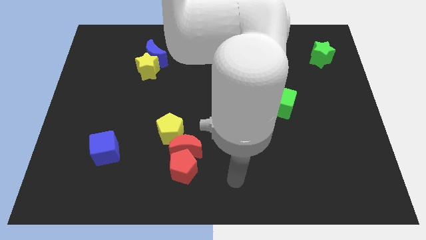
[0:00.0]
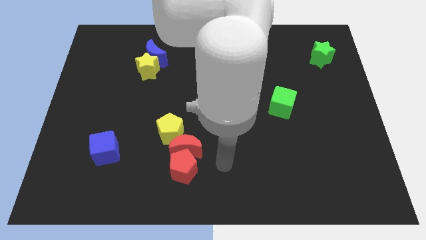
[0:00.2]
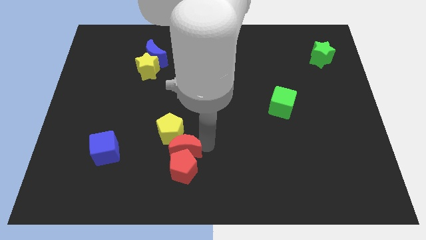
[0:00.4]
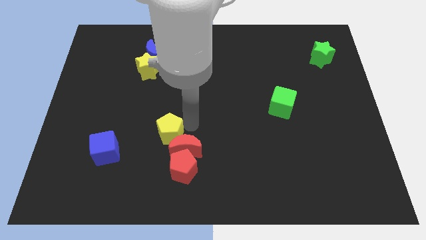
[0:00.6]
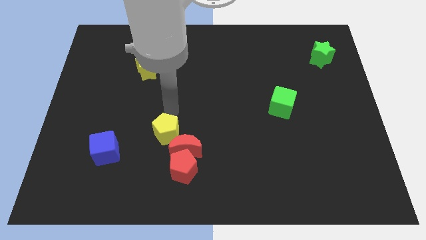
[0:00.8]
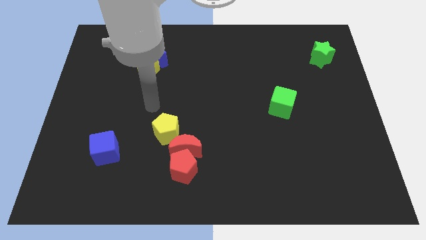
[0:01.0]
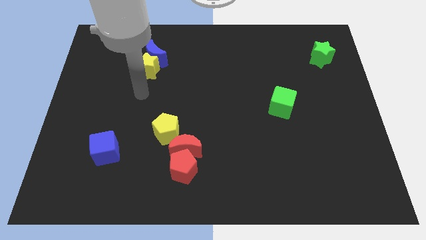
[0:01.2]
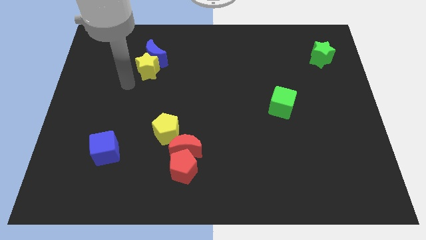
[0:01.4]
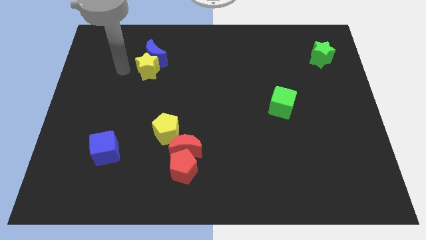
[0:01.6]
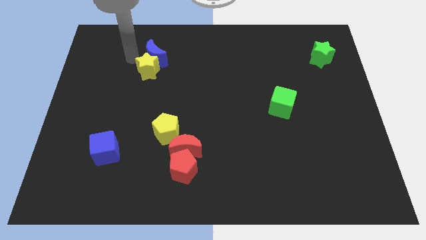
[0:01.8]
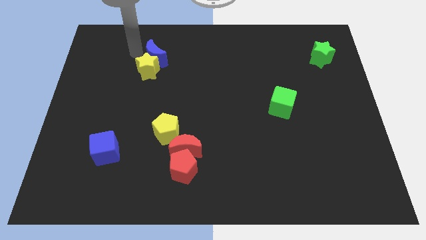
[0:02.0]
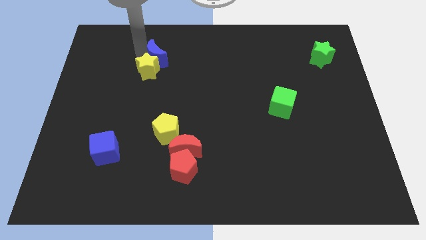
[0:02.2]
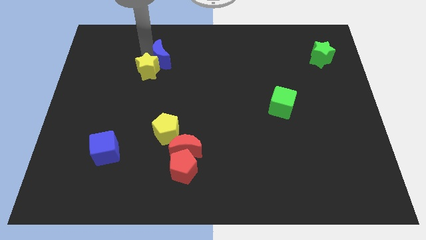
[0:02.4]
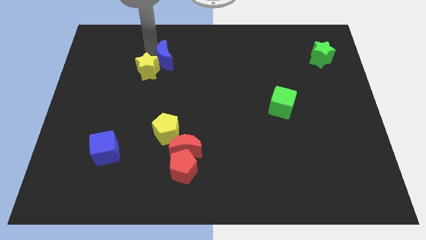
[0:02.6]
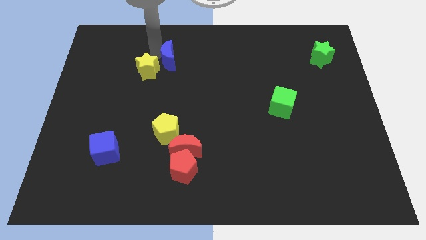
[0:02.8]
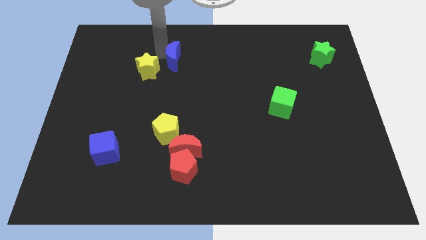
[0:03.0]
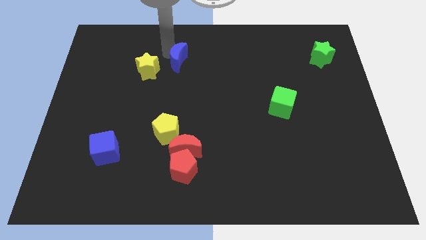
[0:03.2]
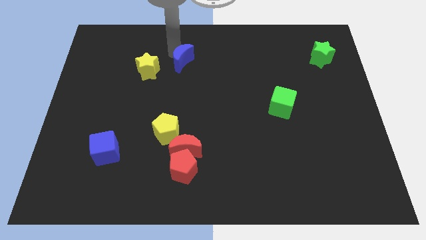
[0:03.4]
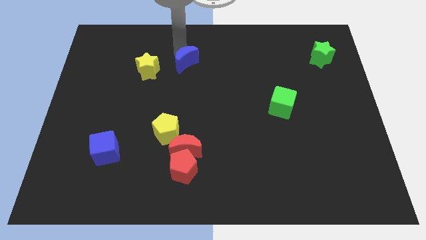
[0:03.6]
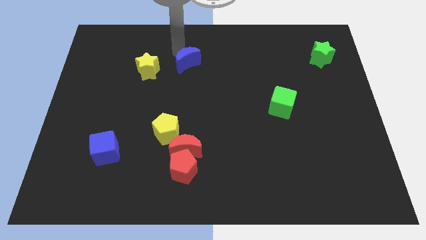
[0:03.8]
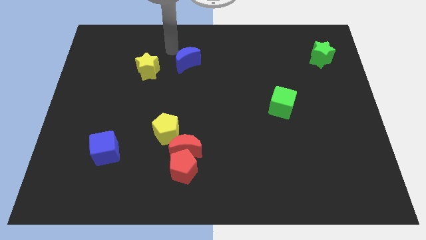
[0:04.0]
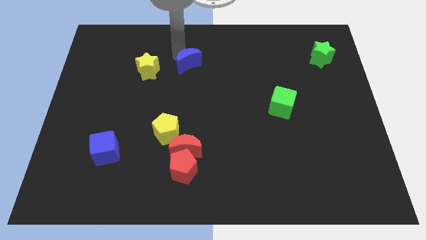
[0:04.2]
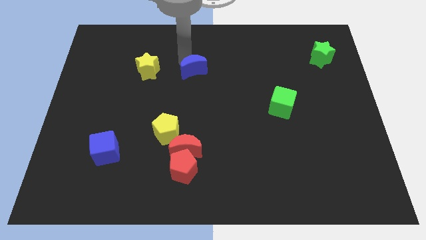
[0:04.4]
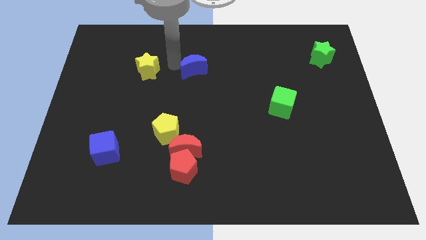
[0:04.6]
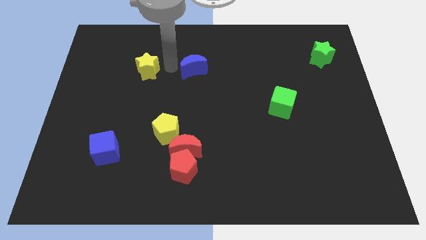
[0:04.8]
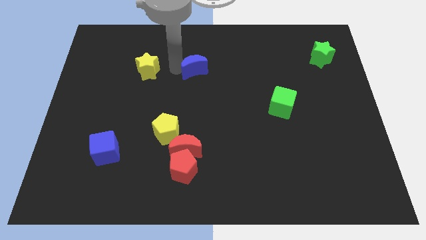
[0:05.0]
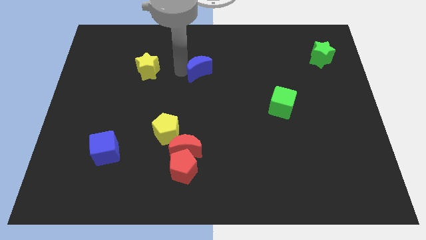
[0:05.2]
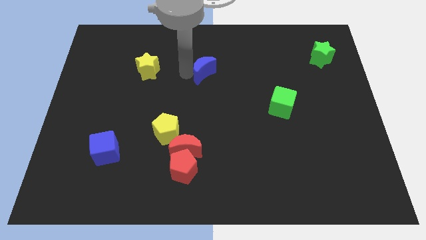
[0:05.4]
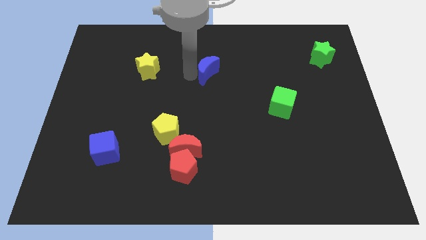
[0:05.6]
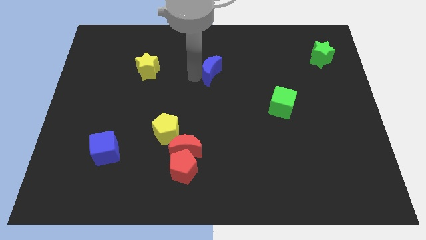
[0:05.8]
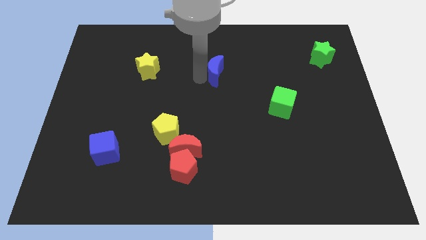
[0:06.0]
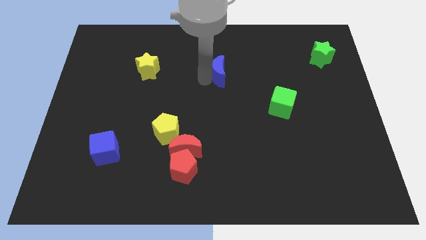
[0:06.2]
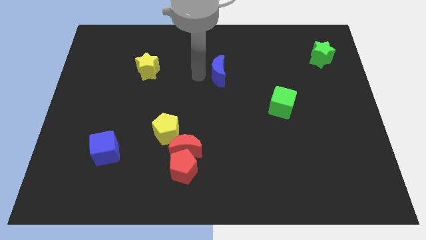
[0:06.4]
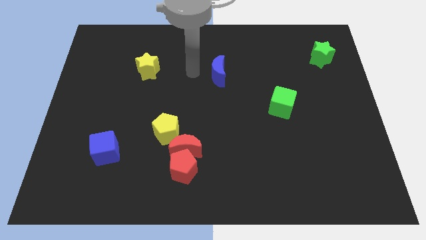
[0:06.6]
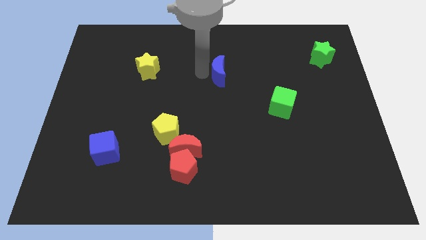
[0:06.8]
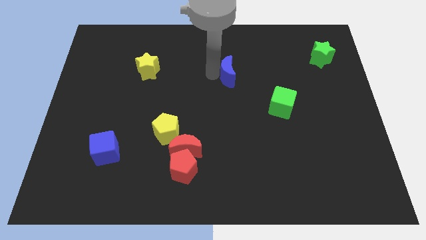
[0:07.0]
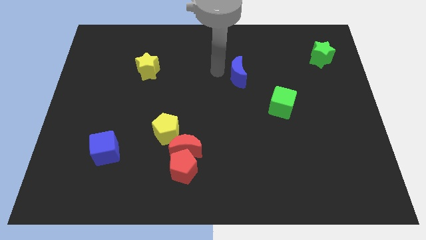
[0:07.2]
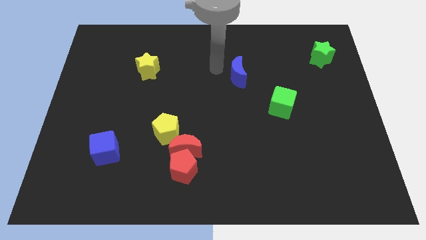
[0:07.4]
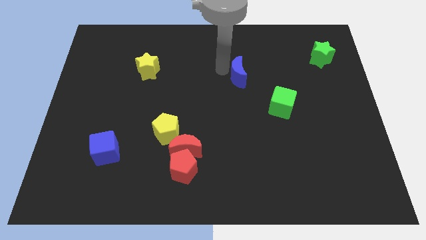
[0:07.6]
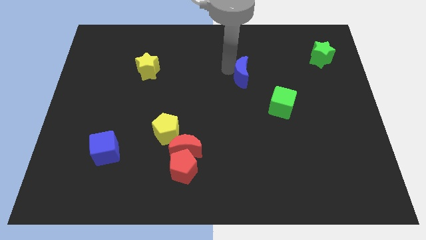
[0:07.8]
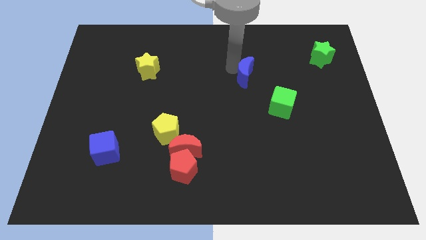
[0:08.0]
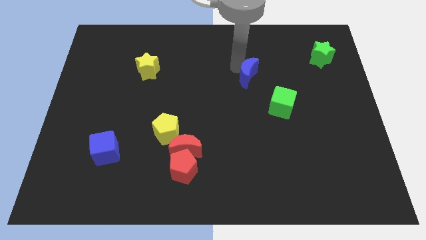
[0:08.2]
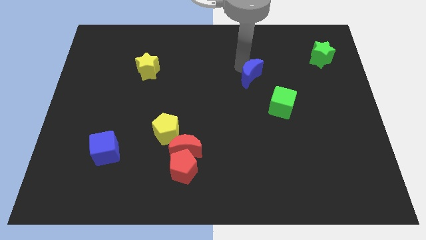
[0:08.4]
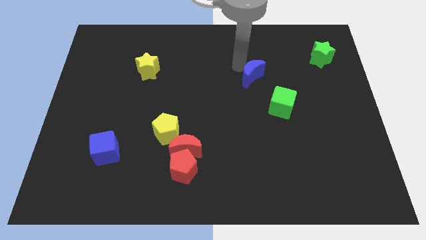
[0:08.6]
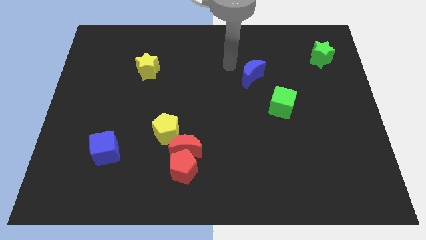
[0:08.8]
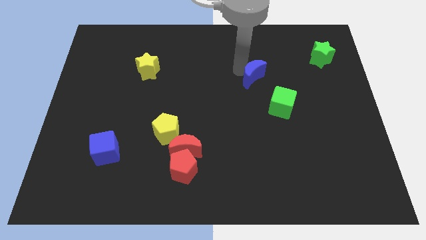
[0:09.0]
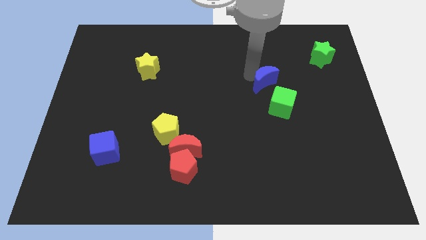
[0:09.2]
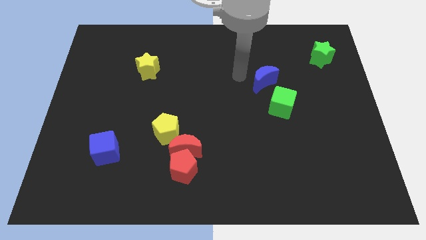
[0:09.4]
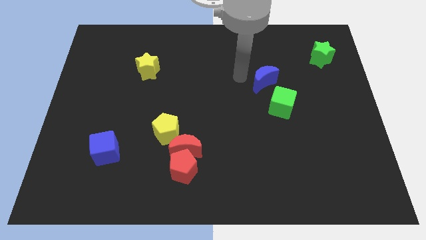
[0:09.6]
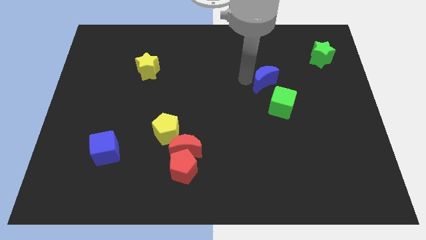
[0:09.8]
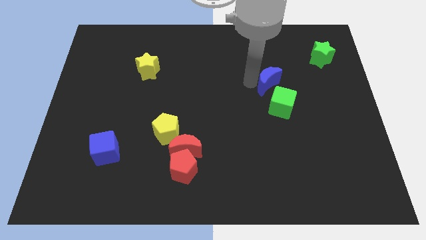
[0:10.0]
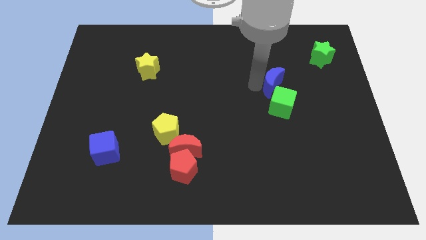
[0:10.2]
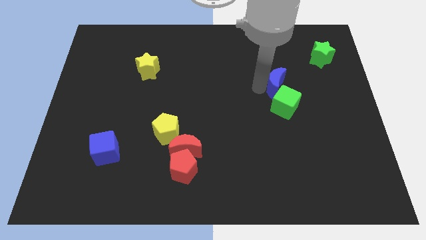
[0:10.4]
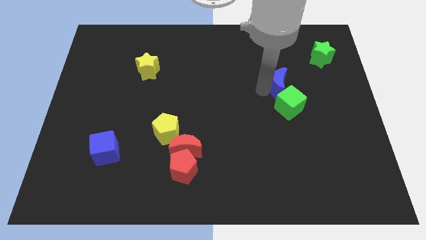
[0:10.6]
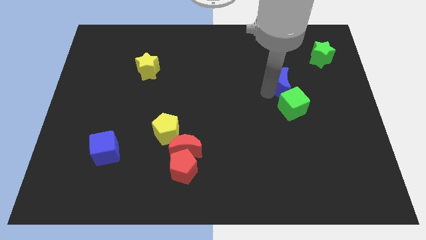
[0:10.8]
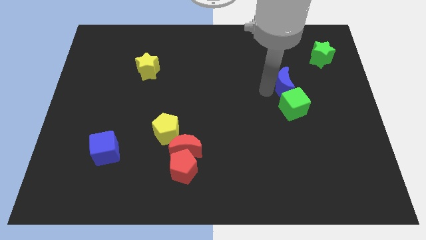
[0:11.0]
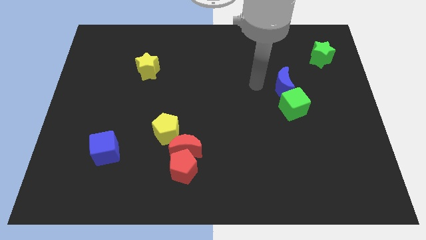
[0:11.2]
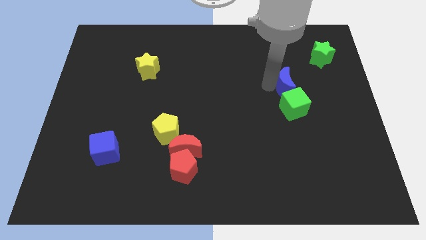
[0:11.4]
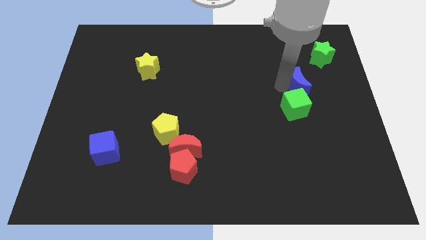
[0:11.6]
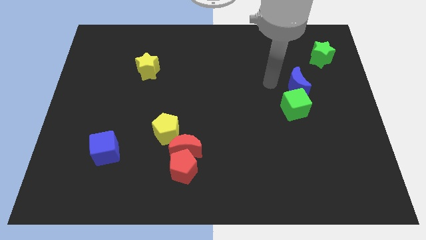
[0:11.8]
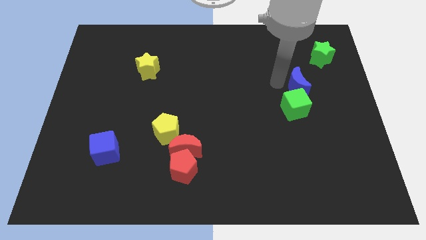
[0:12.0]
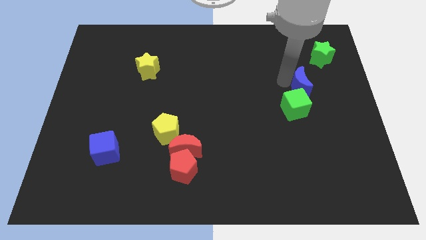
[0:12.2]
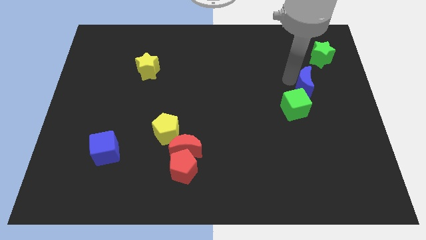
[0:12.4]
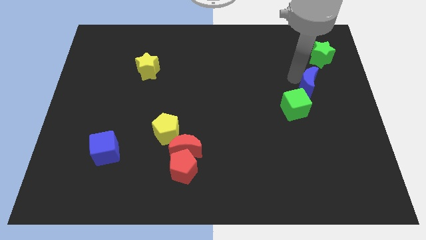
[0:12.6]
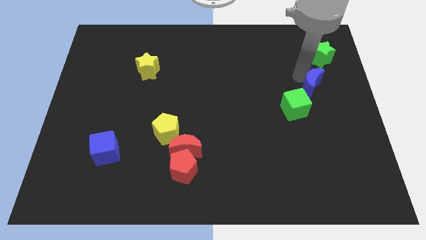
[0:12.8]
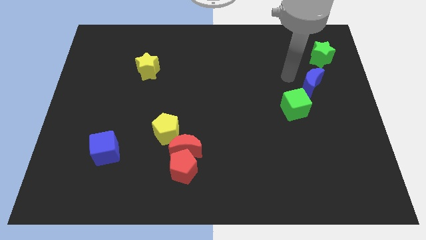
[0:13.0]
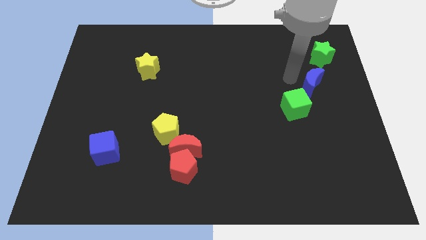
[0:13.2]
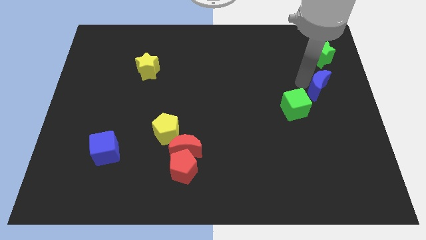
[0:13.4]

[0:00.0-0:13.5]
push the blue moon to the right side

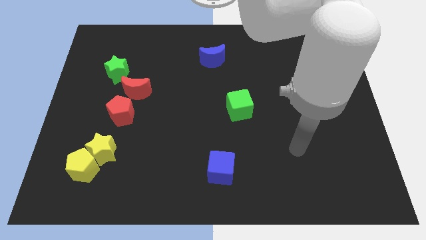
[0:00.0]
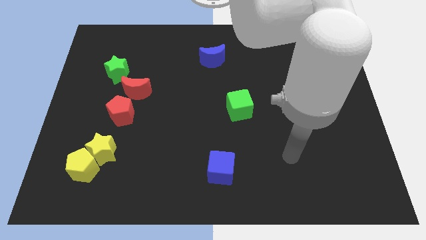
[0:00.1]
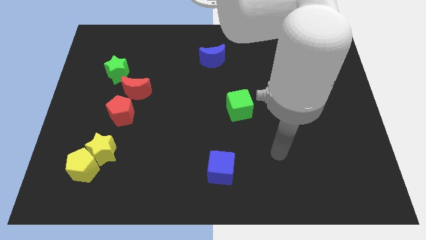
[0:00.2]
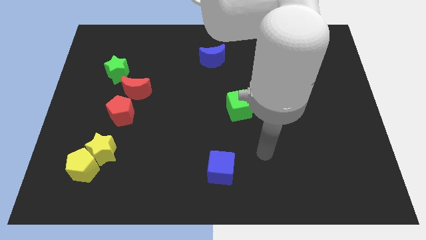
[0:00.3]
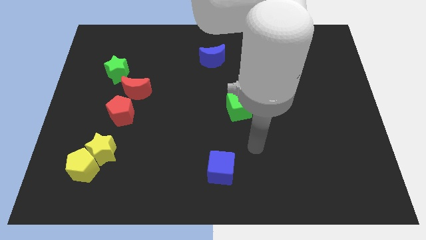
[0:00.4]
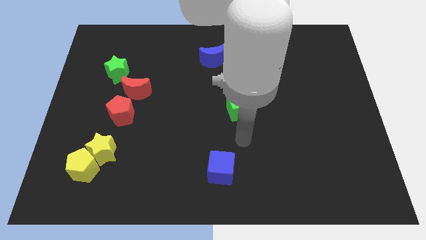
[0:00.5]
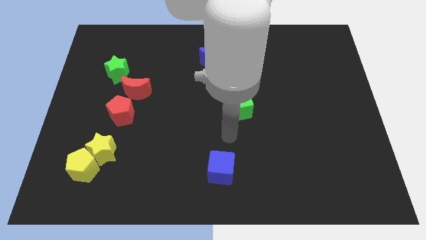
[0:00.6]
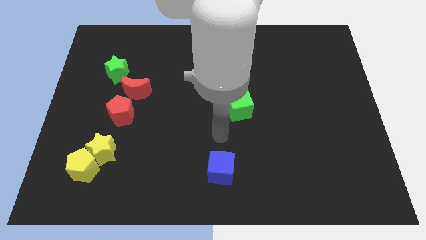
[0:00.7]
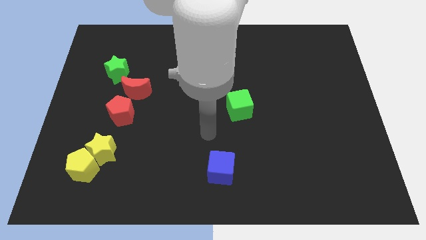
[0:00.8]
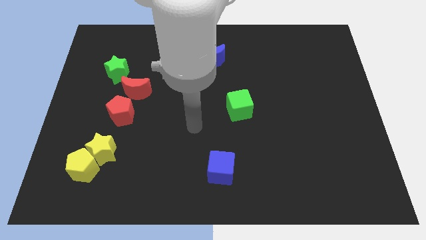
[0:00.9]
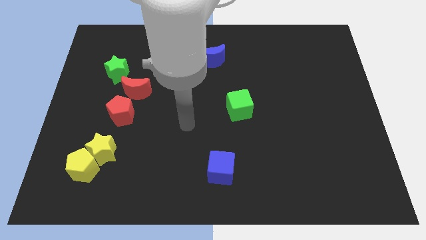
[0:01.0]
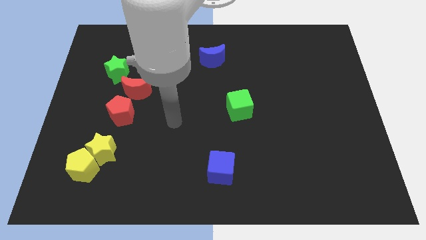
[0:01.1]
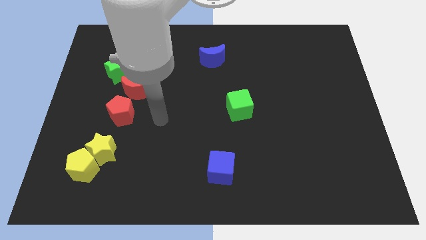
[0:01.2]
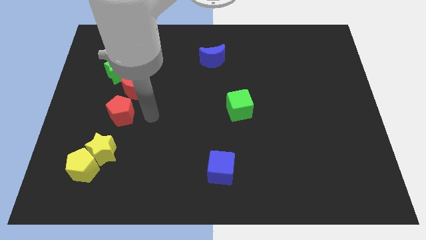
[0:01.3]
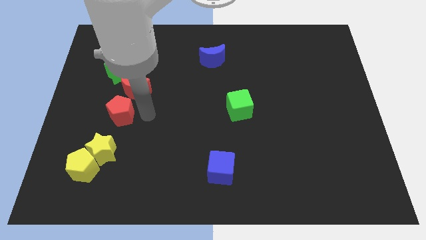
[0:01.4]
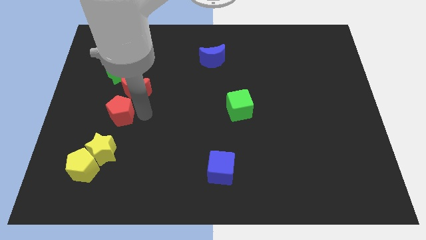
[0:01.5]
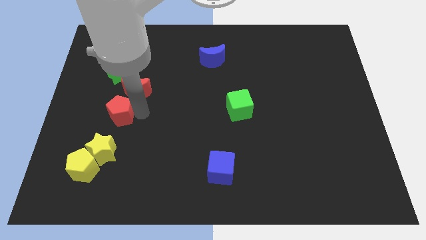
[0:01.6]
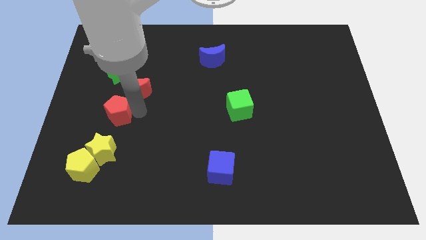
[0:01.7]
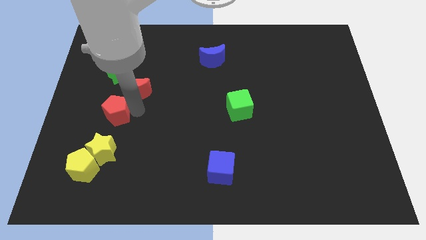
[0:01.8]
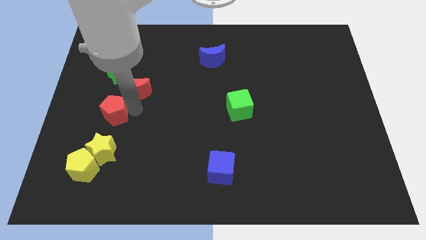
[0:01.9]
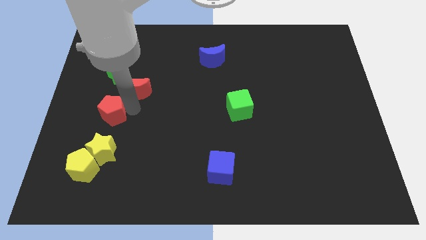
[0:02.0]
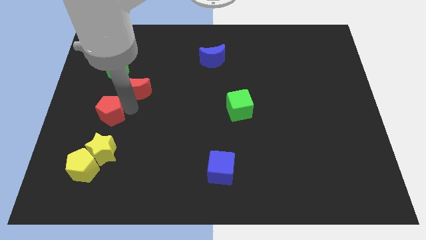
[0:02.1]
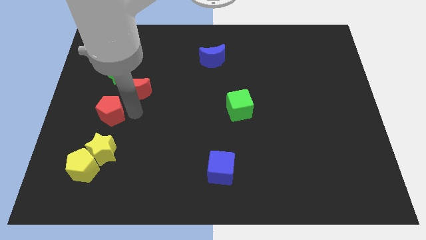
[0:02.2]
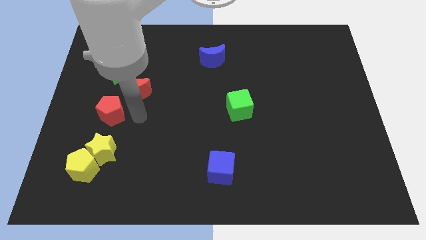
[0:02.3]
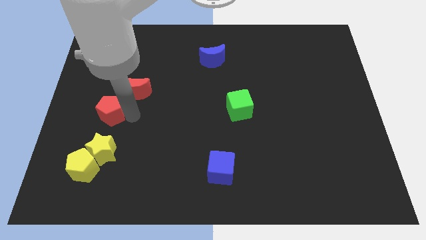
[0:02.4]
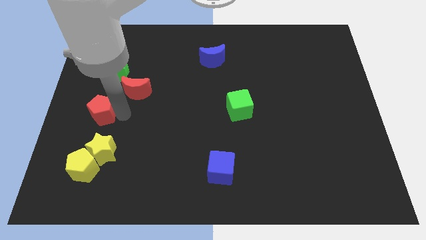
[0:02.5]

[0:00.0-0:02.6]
slide the red pentagon to the left side of the board
